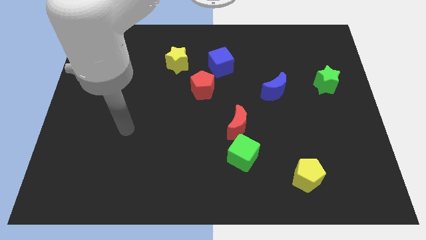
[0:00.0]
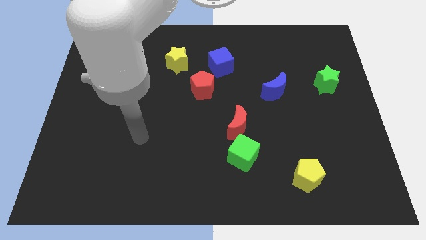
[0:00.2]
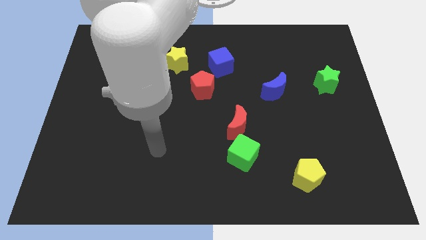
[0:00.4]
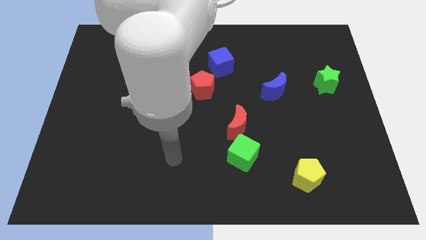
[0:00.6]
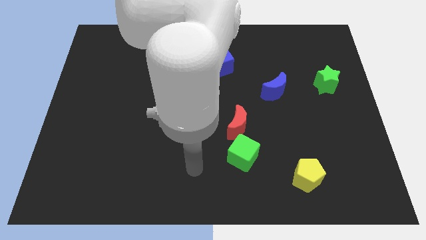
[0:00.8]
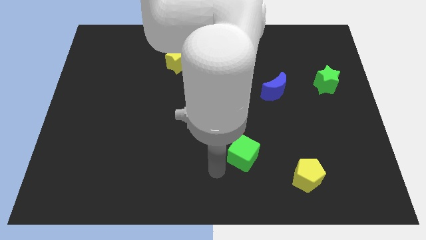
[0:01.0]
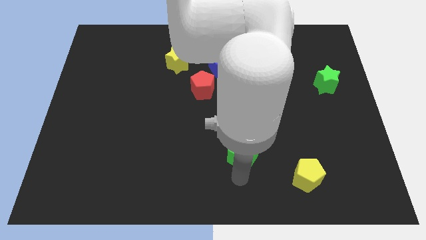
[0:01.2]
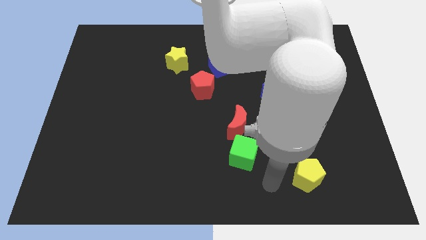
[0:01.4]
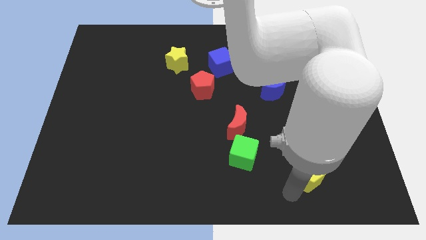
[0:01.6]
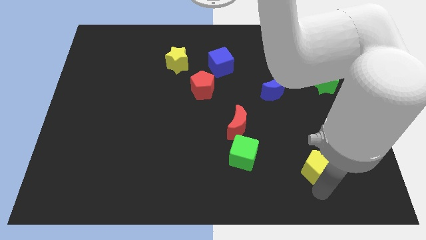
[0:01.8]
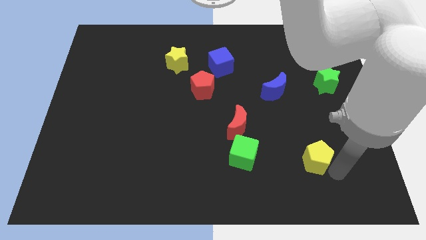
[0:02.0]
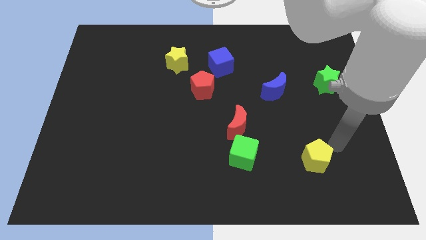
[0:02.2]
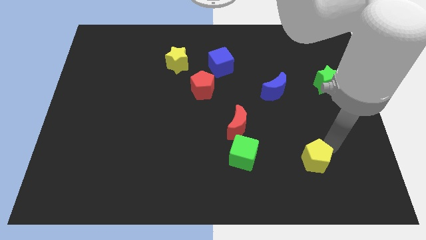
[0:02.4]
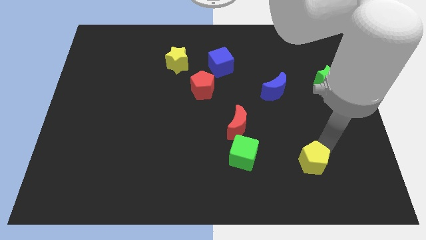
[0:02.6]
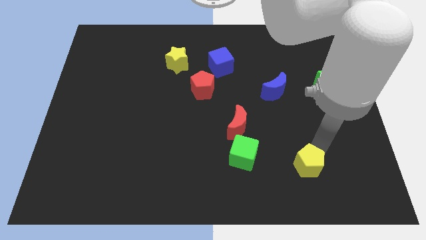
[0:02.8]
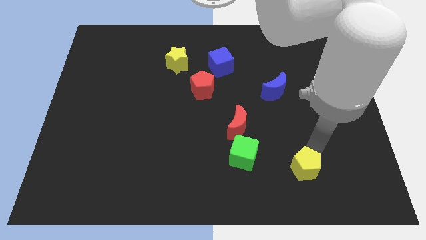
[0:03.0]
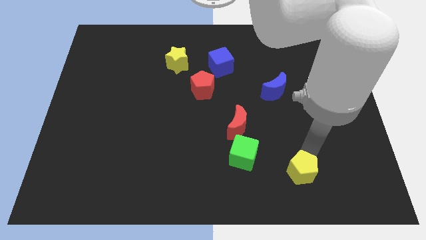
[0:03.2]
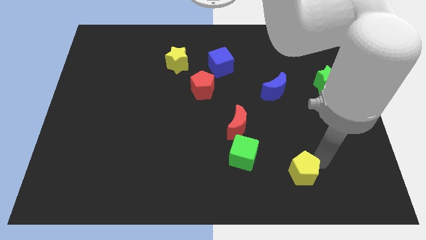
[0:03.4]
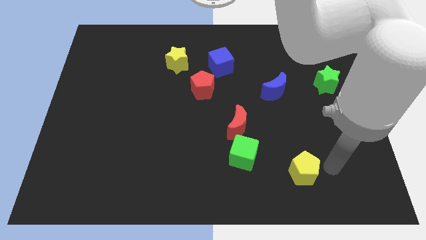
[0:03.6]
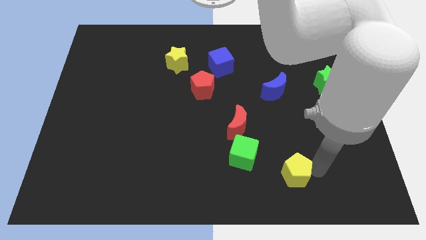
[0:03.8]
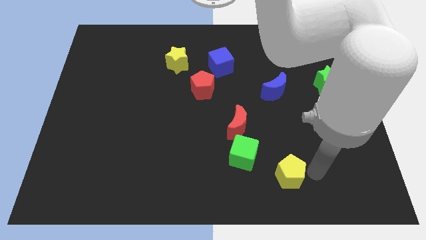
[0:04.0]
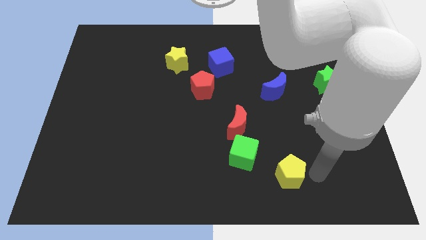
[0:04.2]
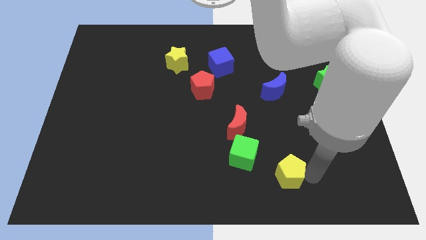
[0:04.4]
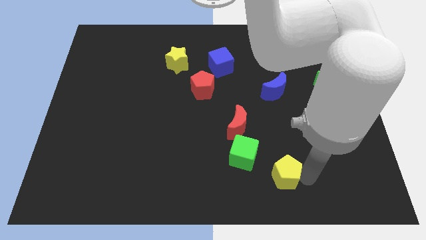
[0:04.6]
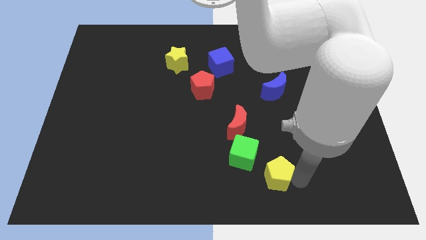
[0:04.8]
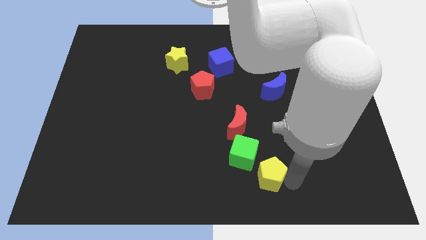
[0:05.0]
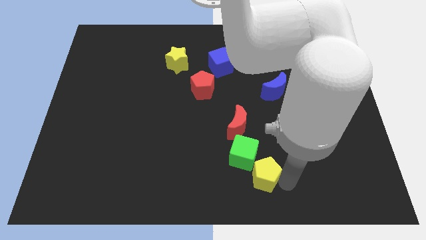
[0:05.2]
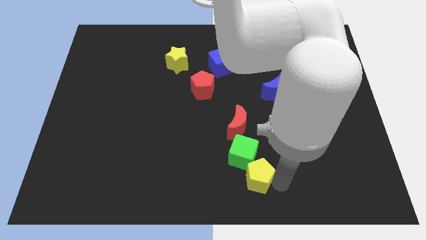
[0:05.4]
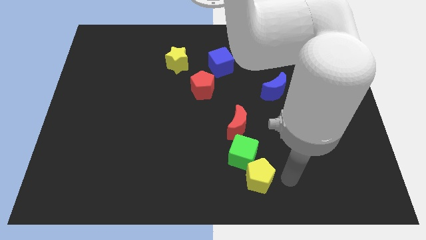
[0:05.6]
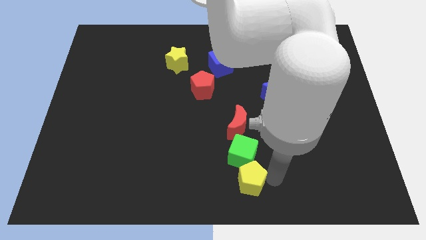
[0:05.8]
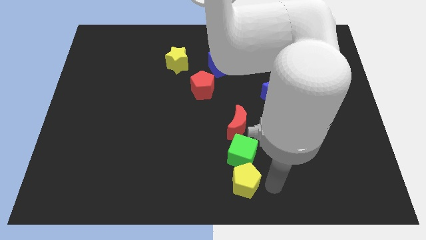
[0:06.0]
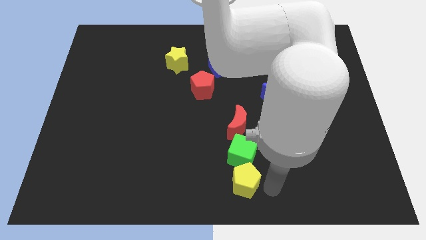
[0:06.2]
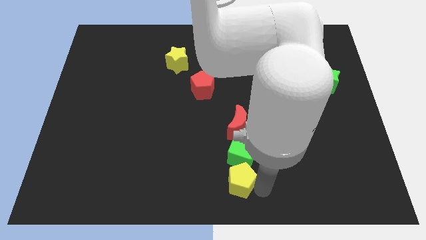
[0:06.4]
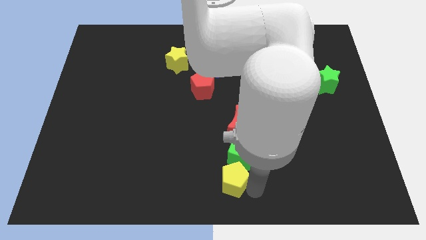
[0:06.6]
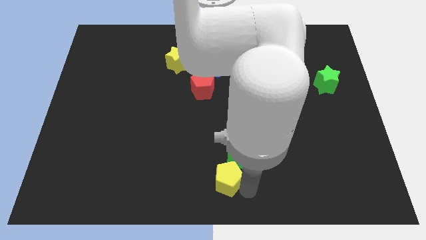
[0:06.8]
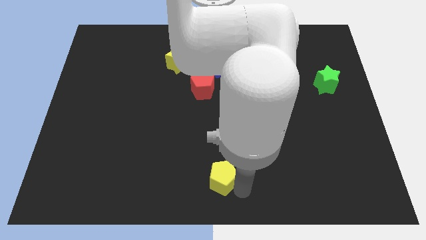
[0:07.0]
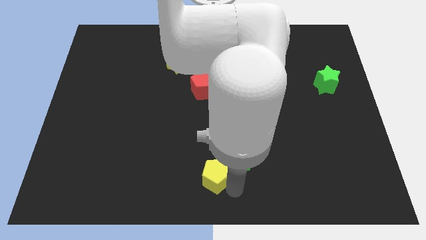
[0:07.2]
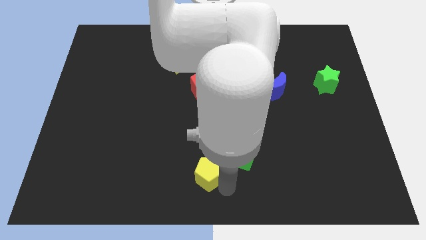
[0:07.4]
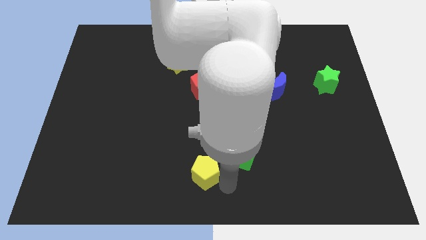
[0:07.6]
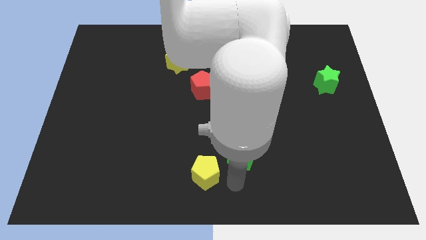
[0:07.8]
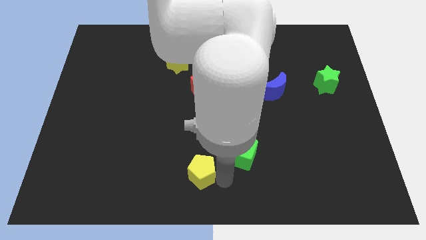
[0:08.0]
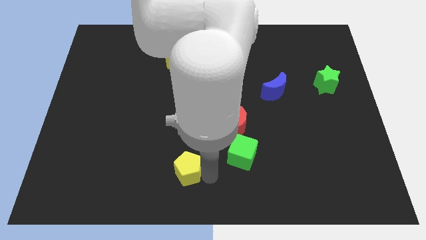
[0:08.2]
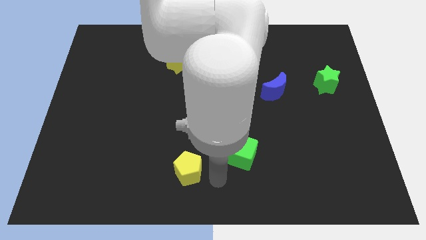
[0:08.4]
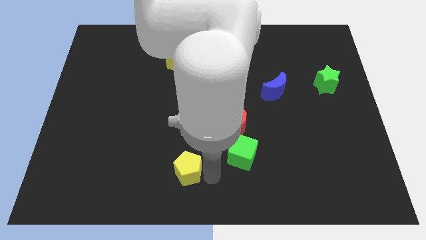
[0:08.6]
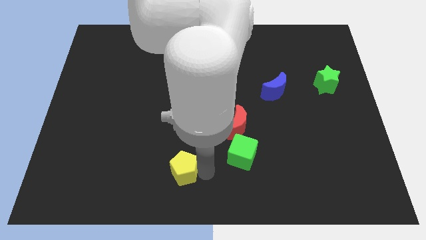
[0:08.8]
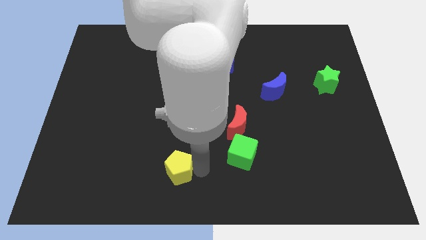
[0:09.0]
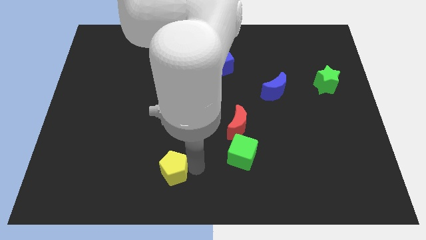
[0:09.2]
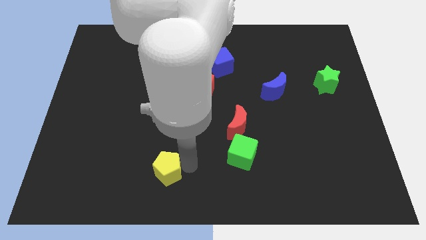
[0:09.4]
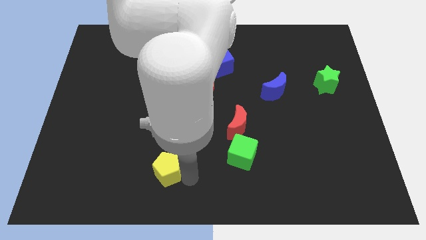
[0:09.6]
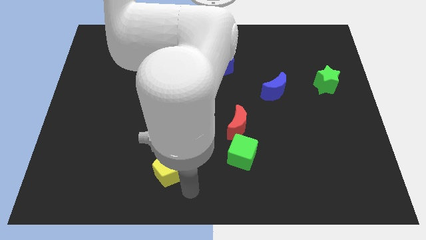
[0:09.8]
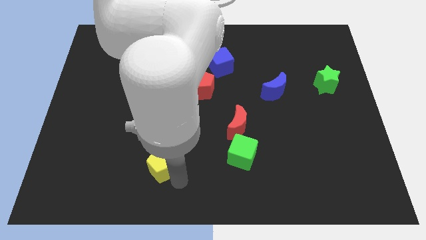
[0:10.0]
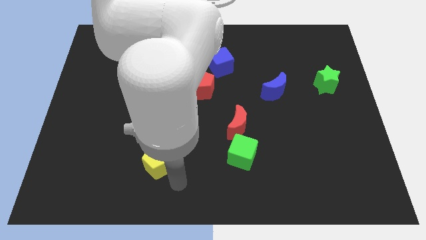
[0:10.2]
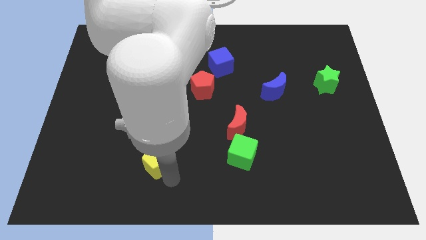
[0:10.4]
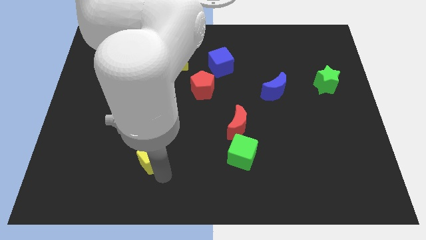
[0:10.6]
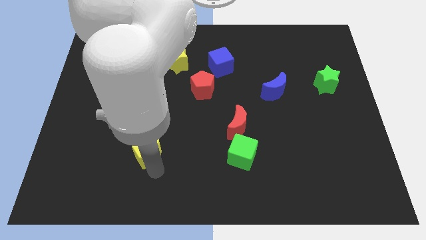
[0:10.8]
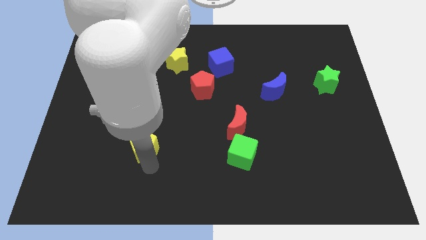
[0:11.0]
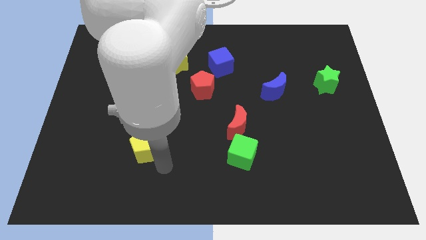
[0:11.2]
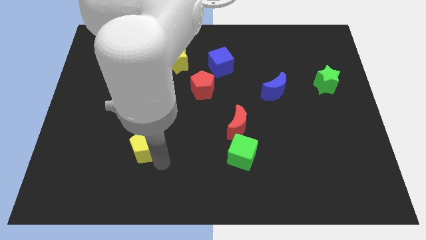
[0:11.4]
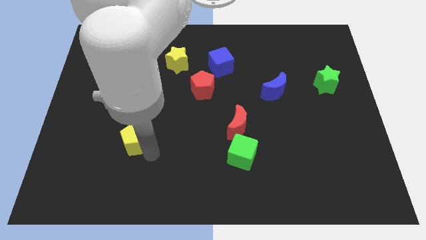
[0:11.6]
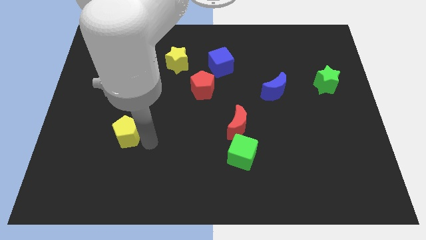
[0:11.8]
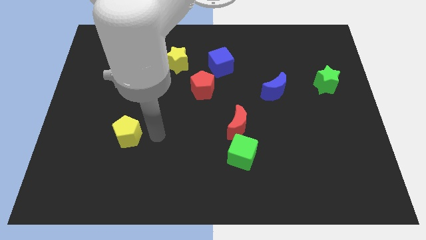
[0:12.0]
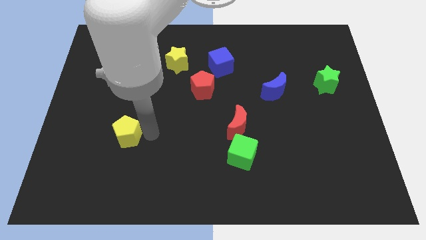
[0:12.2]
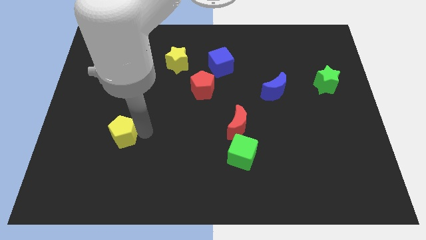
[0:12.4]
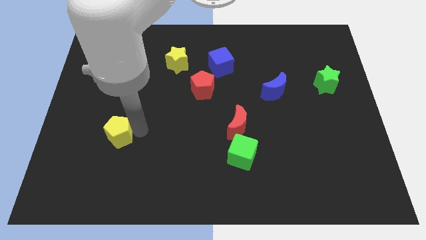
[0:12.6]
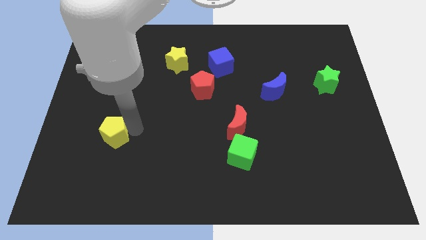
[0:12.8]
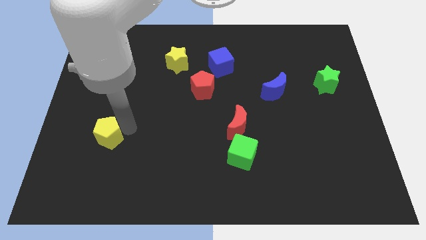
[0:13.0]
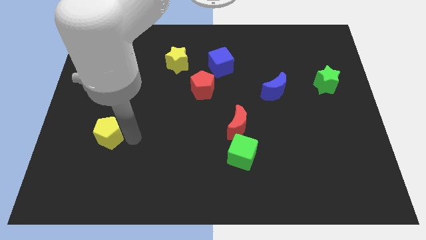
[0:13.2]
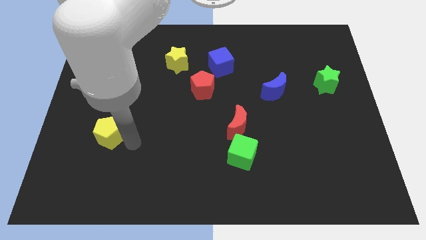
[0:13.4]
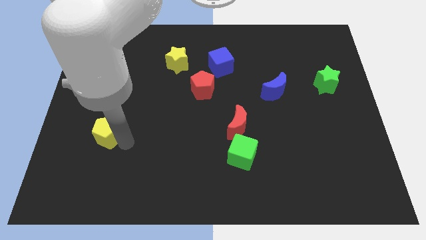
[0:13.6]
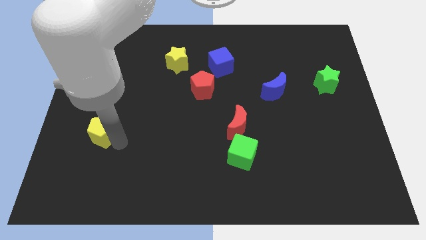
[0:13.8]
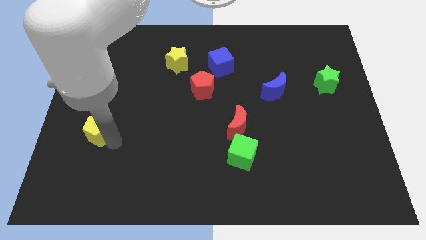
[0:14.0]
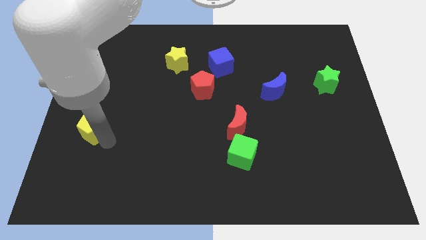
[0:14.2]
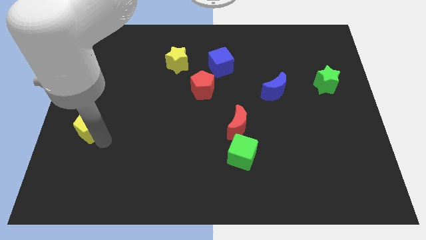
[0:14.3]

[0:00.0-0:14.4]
slide the yellow pentagon to the center left
